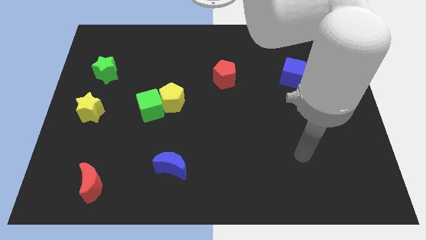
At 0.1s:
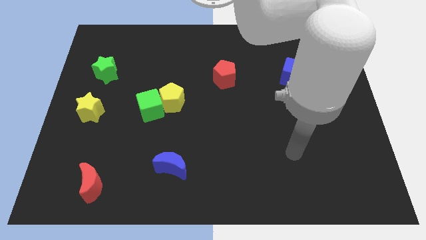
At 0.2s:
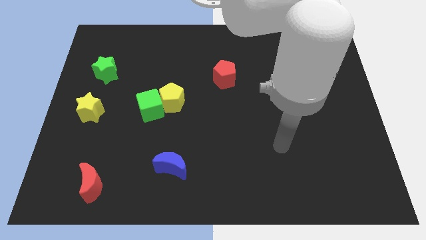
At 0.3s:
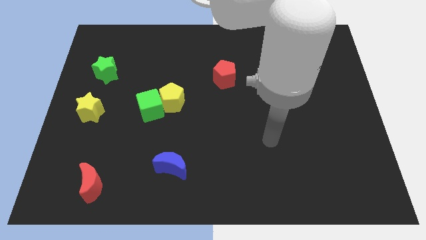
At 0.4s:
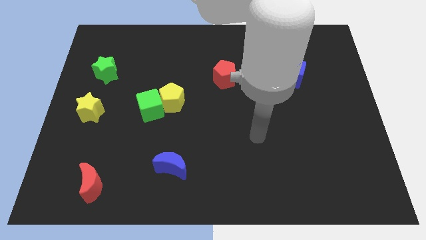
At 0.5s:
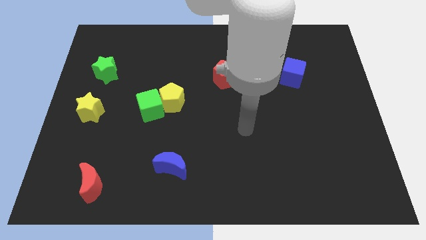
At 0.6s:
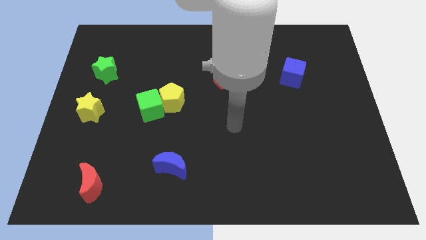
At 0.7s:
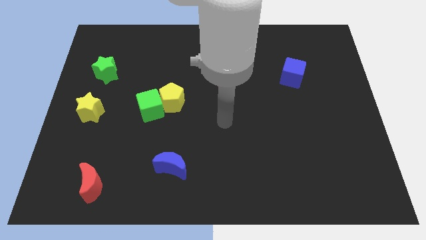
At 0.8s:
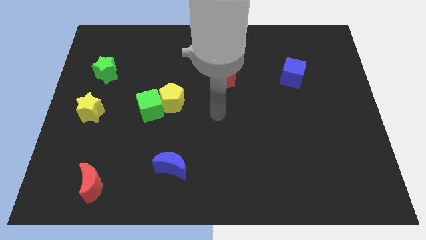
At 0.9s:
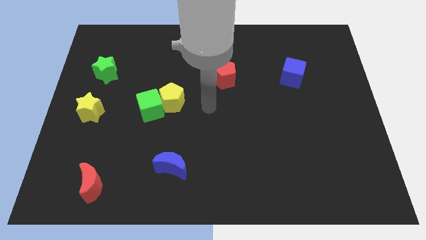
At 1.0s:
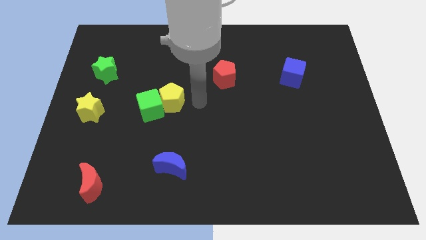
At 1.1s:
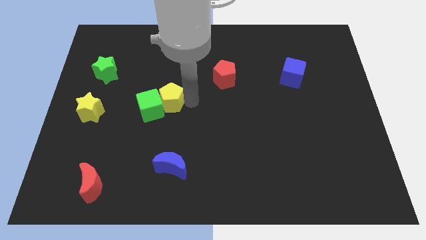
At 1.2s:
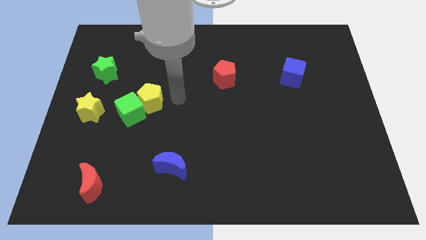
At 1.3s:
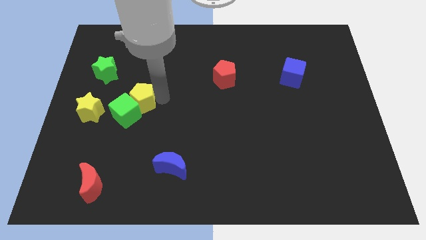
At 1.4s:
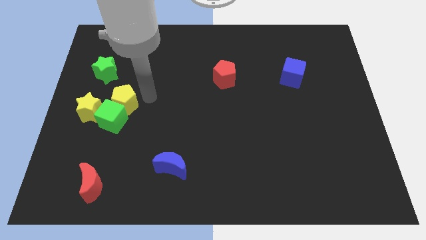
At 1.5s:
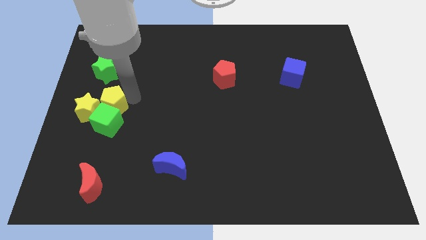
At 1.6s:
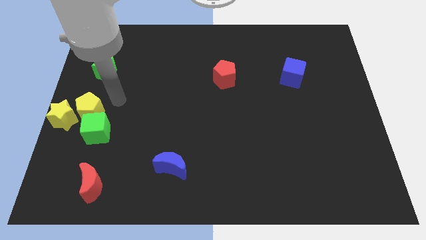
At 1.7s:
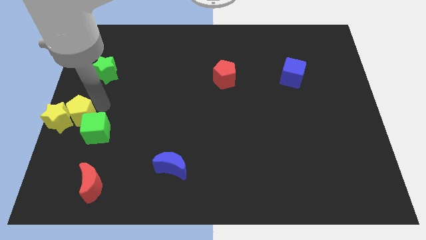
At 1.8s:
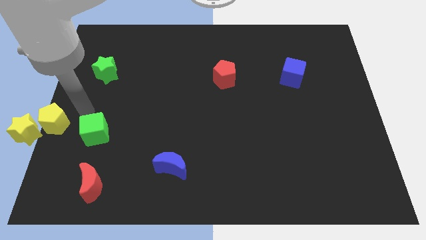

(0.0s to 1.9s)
pull the green cube apart from the yellow pentagon

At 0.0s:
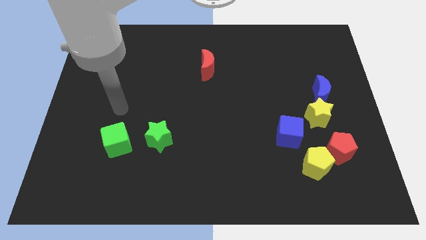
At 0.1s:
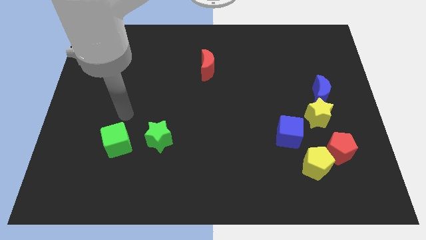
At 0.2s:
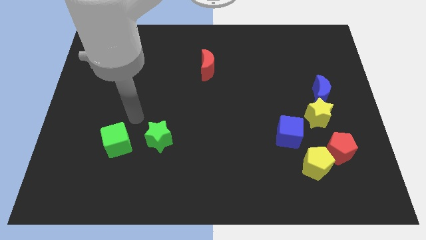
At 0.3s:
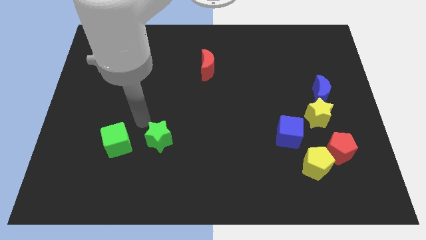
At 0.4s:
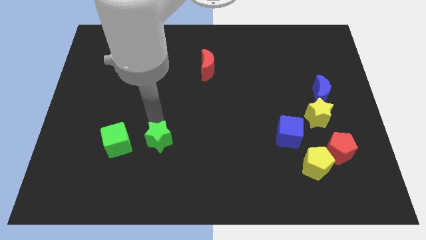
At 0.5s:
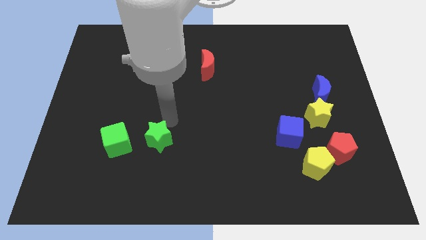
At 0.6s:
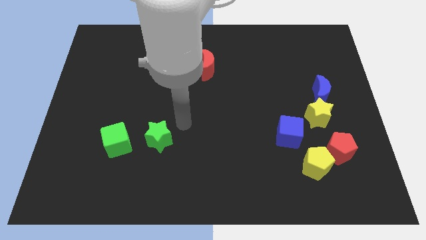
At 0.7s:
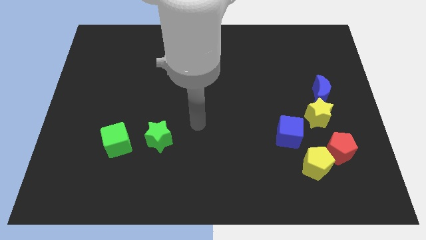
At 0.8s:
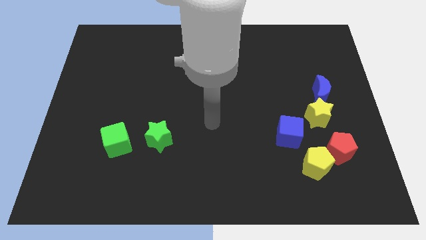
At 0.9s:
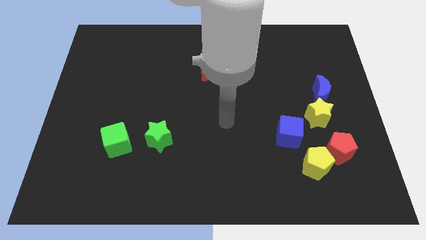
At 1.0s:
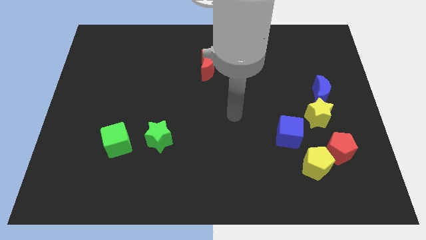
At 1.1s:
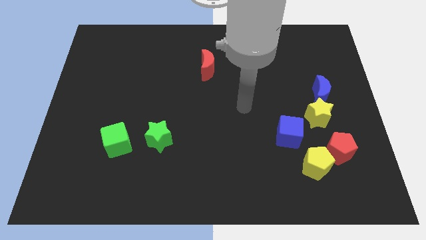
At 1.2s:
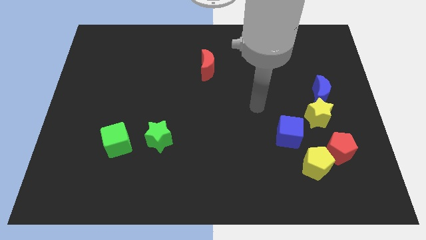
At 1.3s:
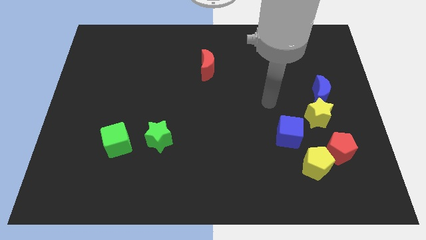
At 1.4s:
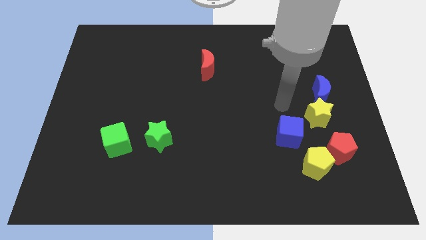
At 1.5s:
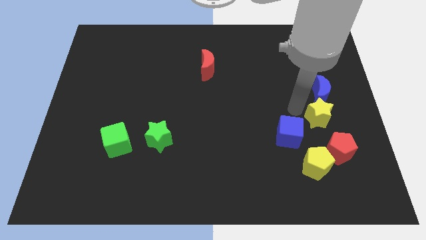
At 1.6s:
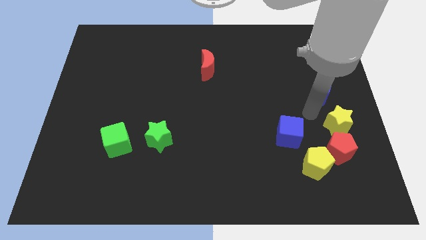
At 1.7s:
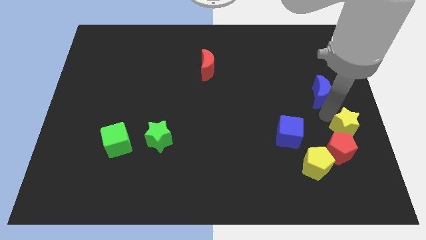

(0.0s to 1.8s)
pull the blue moon apart from the yellow star

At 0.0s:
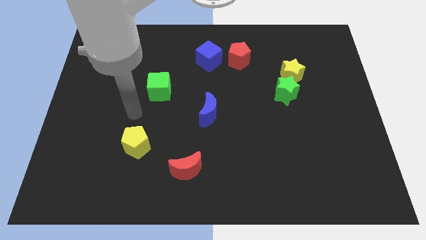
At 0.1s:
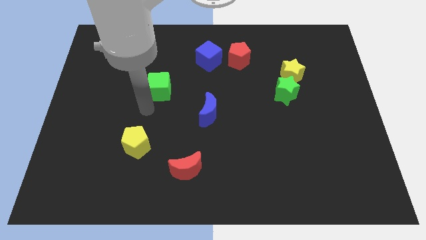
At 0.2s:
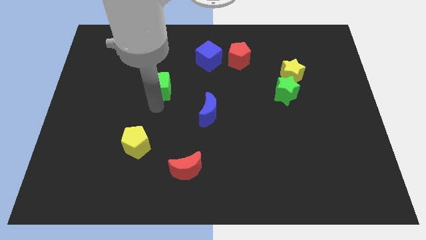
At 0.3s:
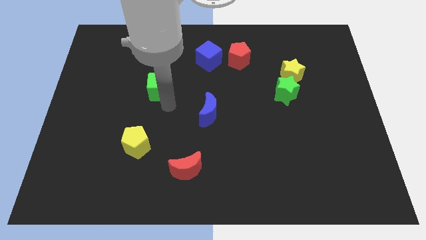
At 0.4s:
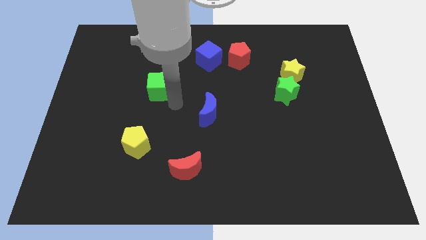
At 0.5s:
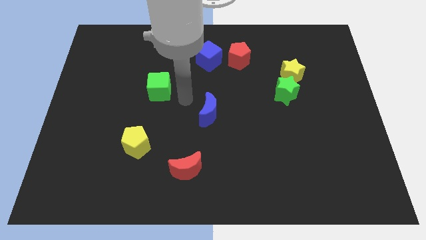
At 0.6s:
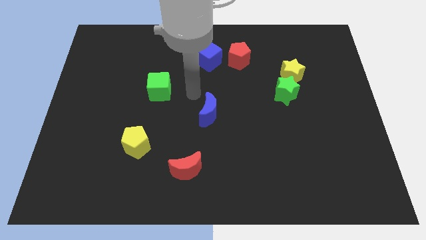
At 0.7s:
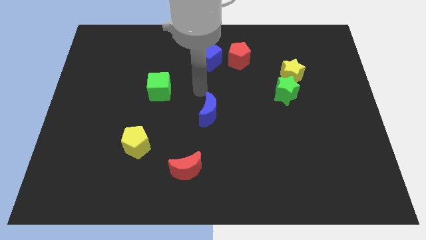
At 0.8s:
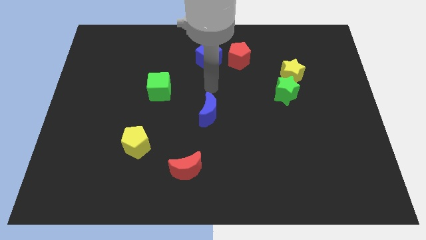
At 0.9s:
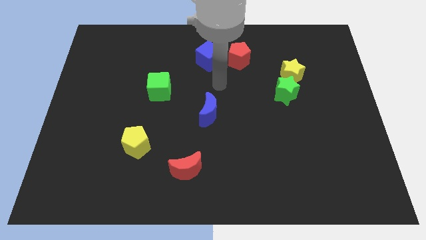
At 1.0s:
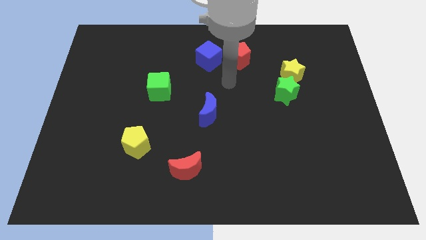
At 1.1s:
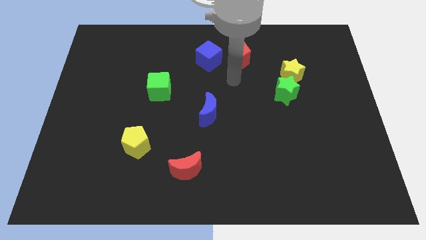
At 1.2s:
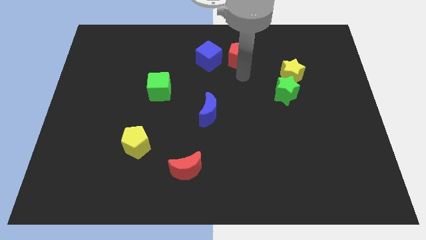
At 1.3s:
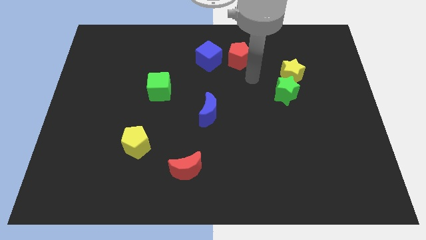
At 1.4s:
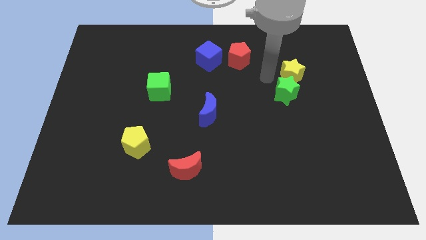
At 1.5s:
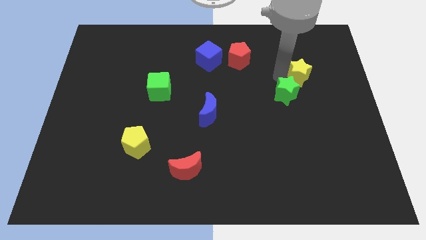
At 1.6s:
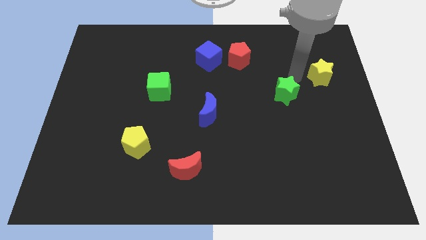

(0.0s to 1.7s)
pull the green star apart from the yellow star

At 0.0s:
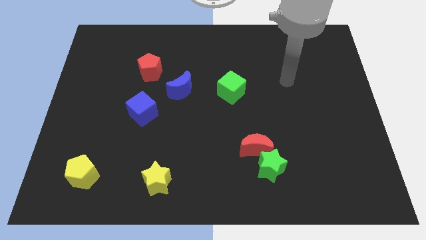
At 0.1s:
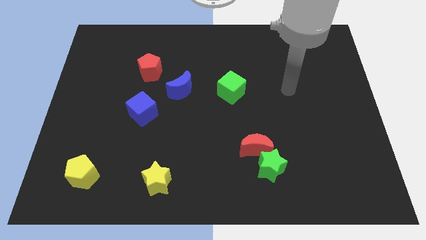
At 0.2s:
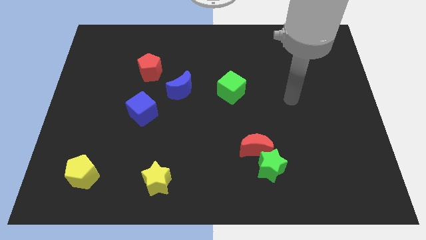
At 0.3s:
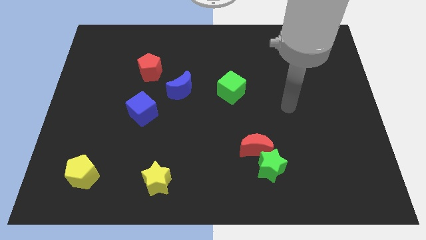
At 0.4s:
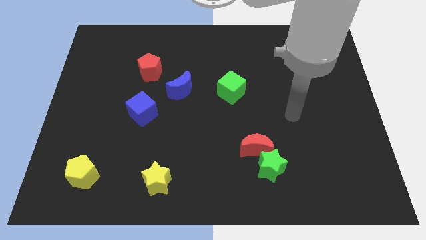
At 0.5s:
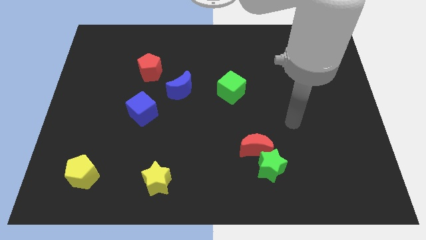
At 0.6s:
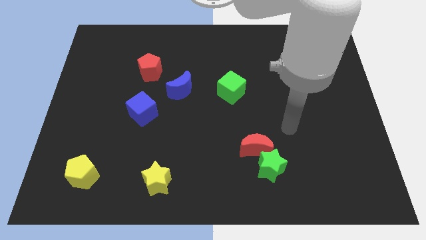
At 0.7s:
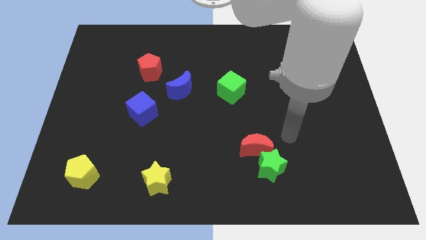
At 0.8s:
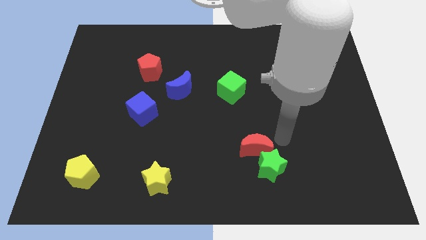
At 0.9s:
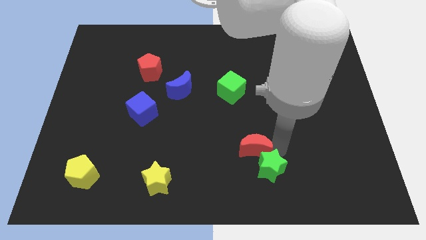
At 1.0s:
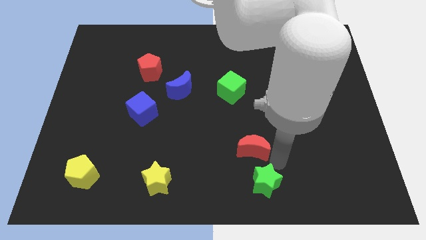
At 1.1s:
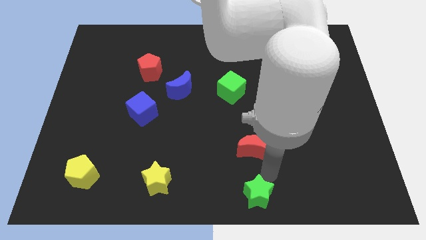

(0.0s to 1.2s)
move the red moon away from the green star

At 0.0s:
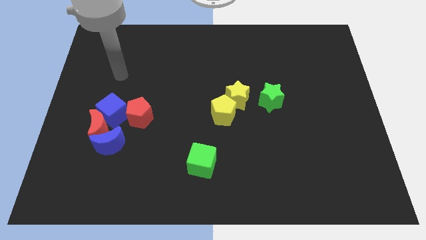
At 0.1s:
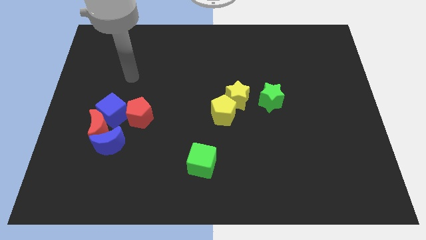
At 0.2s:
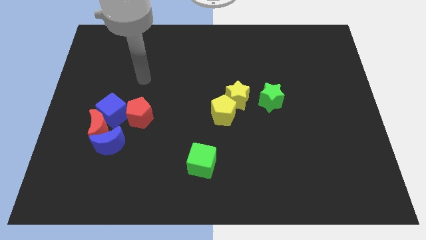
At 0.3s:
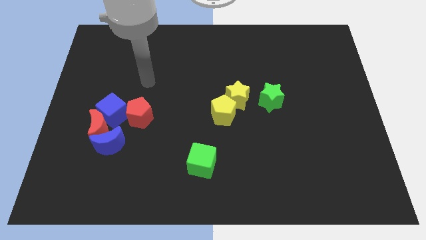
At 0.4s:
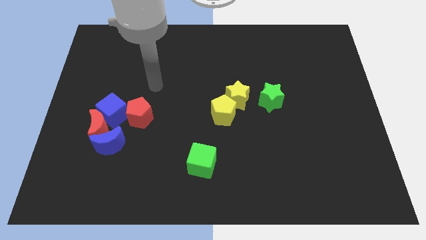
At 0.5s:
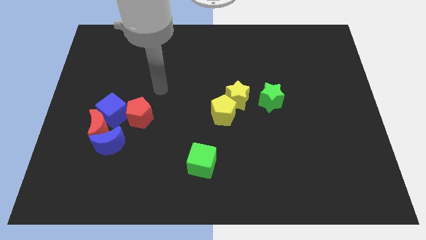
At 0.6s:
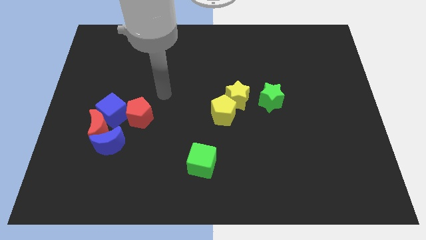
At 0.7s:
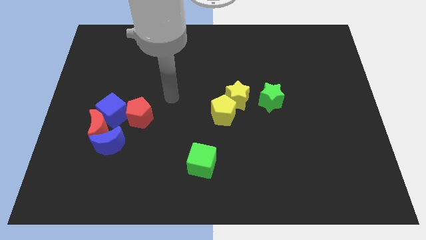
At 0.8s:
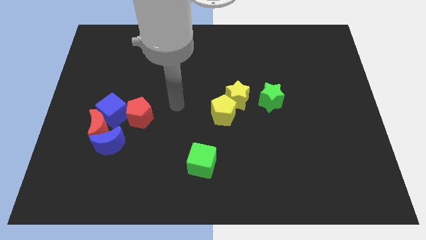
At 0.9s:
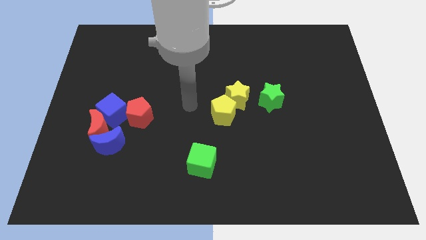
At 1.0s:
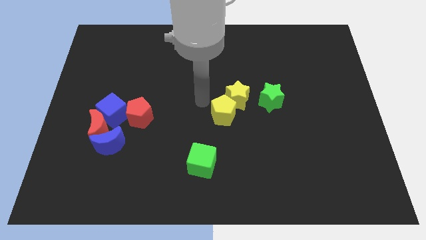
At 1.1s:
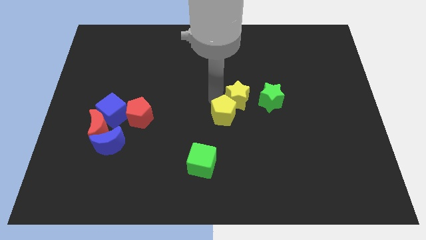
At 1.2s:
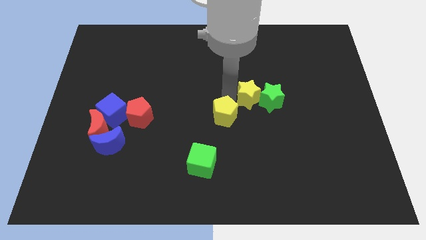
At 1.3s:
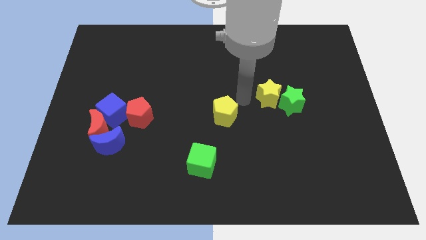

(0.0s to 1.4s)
move the yellow pentagon away from the yellow star

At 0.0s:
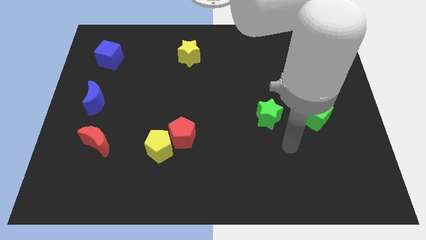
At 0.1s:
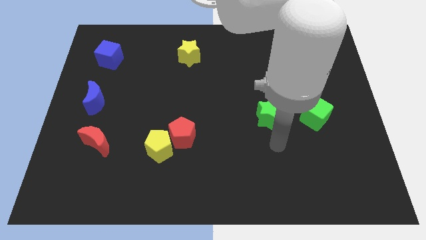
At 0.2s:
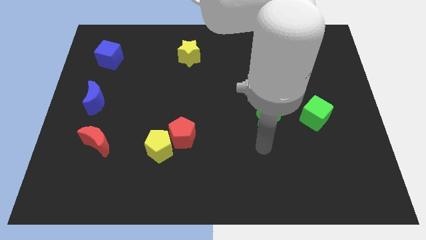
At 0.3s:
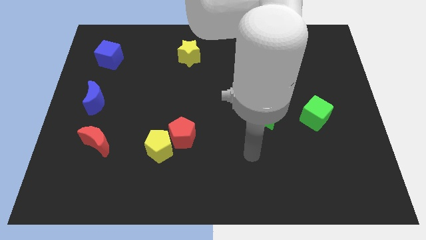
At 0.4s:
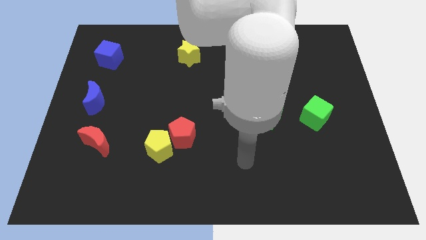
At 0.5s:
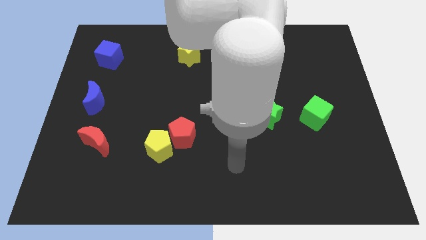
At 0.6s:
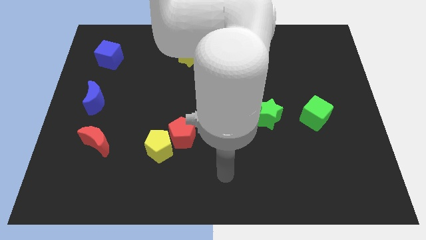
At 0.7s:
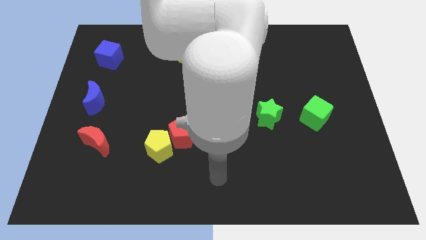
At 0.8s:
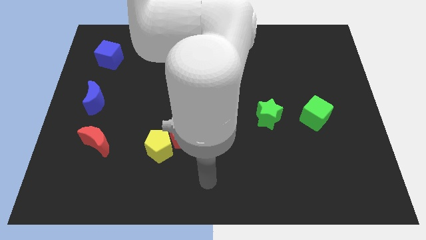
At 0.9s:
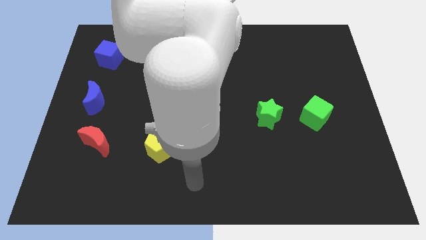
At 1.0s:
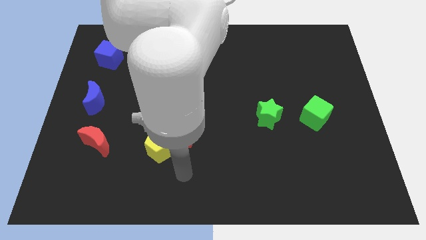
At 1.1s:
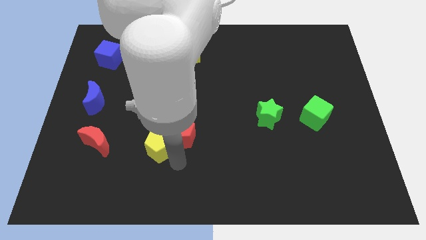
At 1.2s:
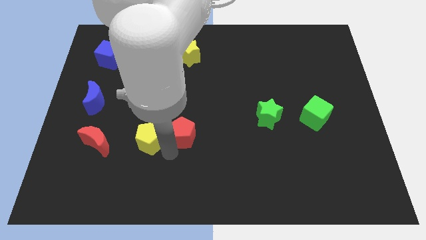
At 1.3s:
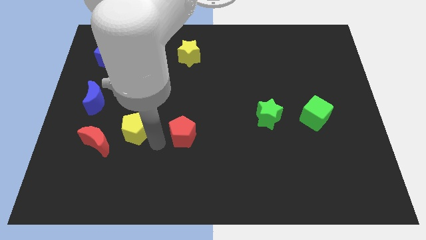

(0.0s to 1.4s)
move the red pentagon away from the yellow pentagon
